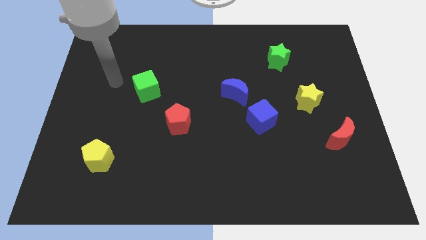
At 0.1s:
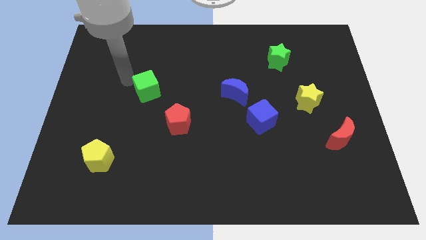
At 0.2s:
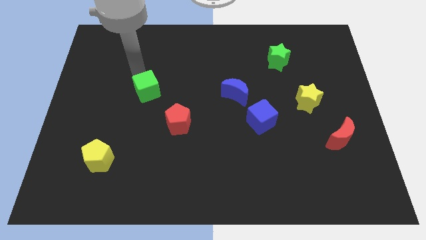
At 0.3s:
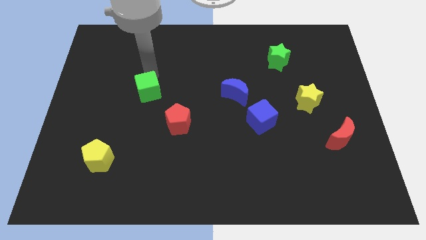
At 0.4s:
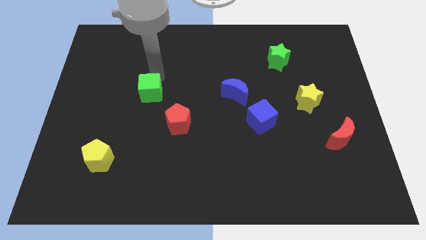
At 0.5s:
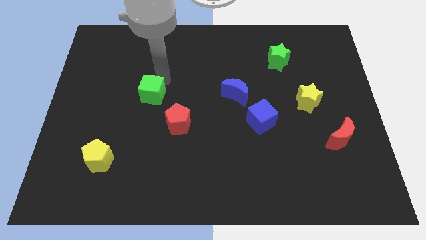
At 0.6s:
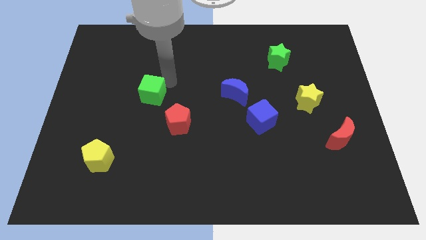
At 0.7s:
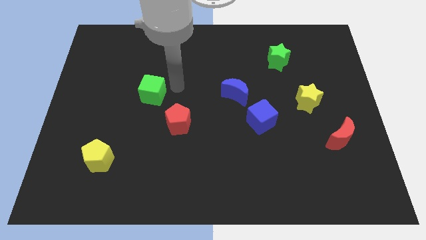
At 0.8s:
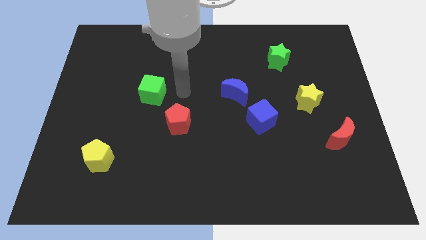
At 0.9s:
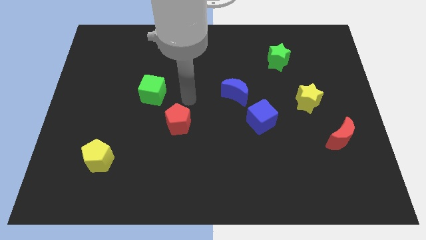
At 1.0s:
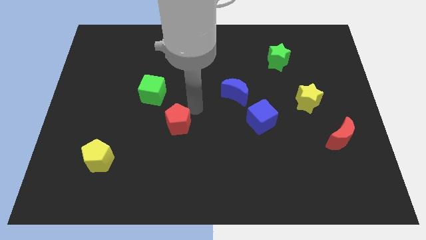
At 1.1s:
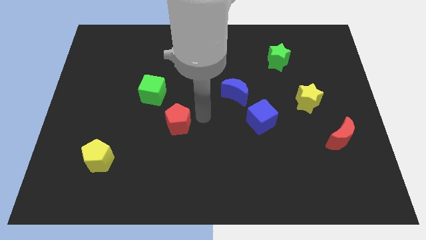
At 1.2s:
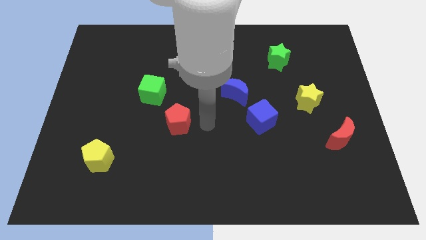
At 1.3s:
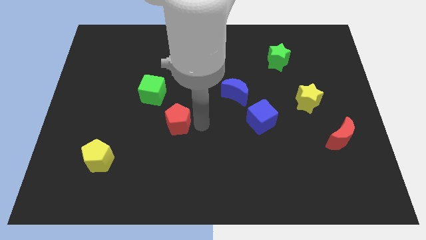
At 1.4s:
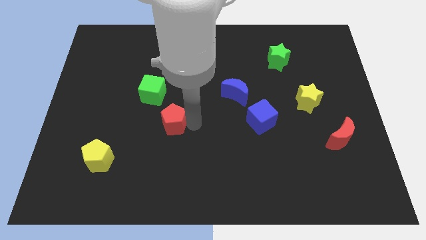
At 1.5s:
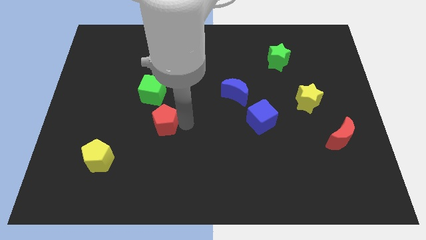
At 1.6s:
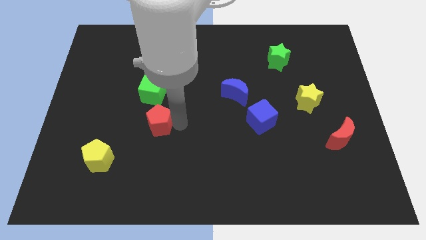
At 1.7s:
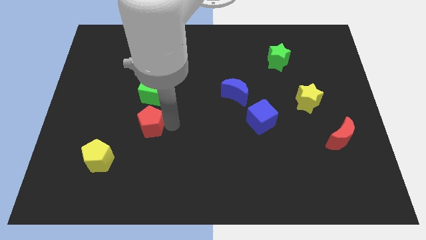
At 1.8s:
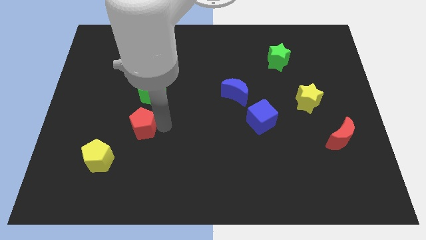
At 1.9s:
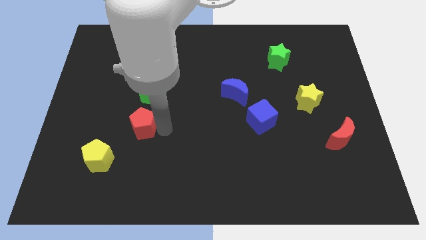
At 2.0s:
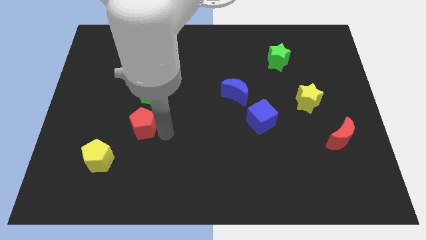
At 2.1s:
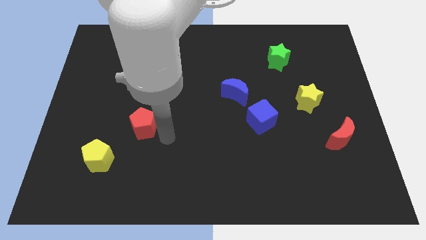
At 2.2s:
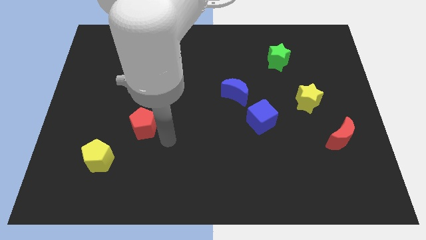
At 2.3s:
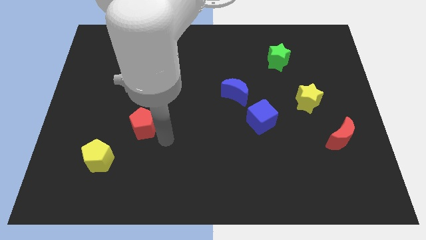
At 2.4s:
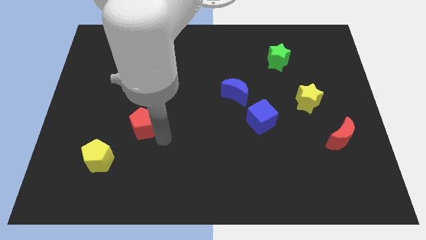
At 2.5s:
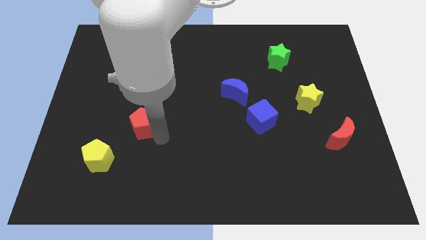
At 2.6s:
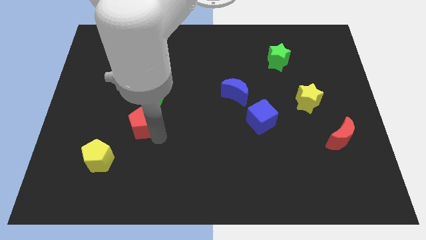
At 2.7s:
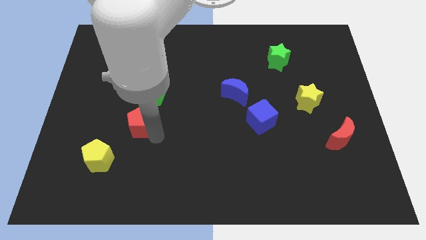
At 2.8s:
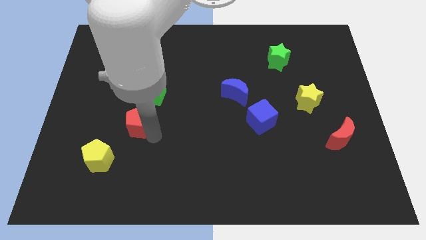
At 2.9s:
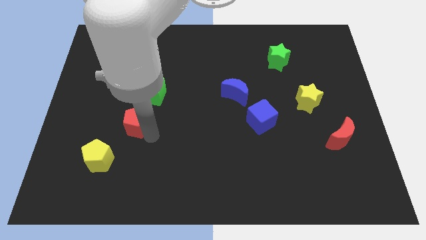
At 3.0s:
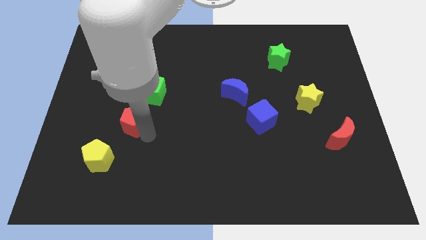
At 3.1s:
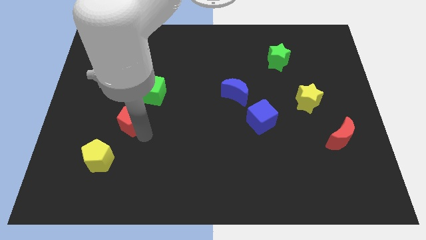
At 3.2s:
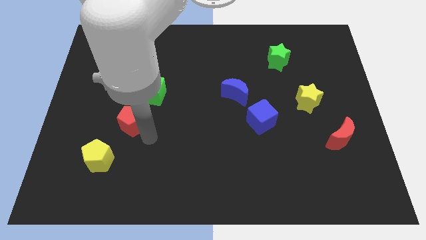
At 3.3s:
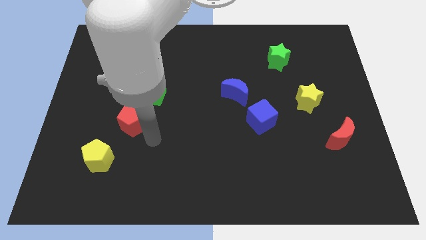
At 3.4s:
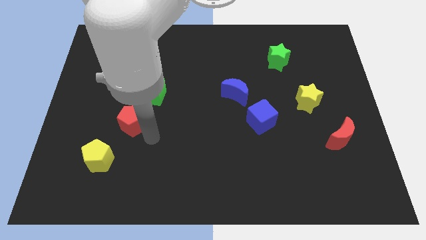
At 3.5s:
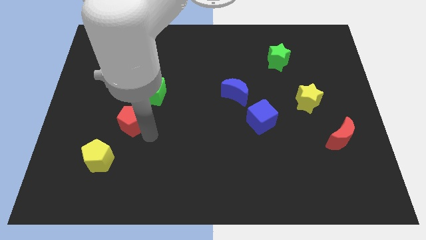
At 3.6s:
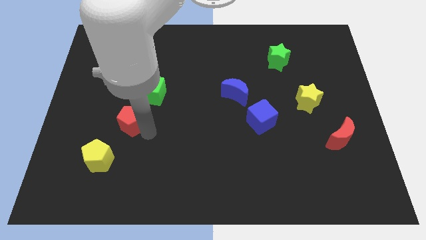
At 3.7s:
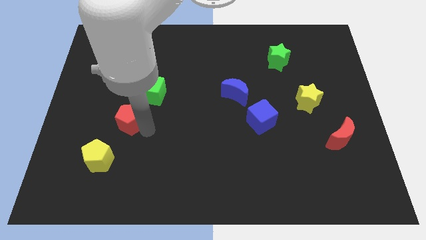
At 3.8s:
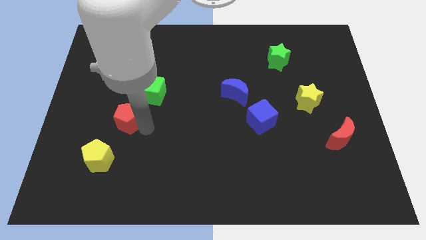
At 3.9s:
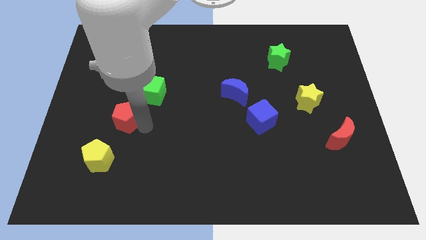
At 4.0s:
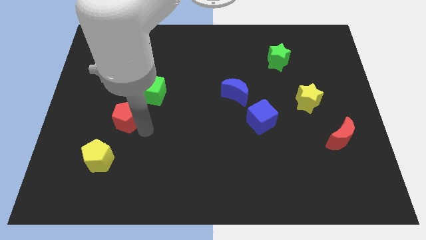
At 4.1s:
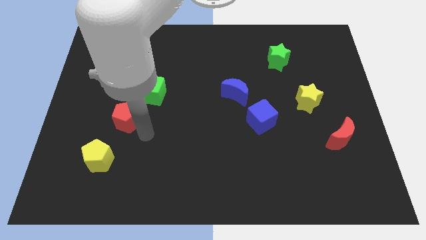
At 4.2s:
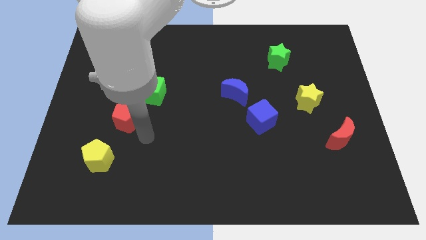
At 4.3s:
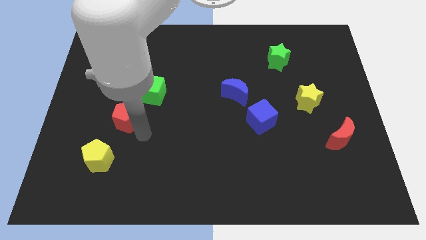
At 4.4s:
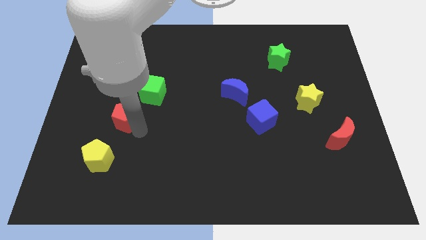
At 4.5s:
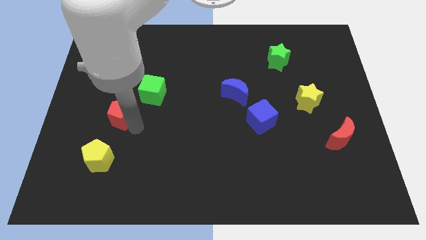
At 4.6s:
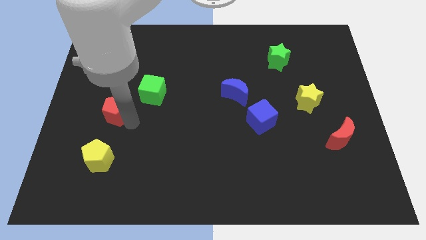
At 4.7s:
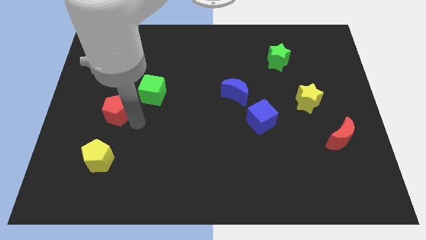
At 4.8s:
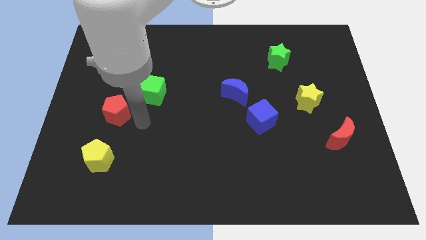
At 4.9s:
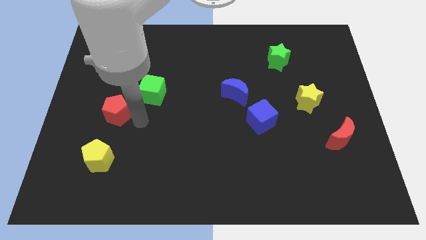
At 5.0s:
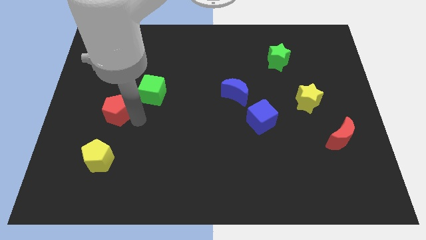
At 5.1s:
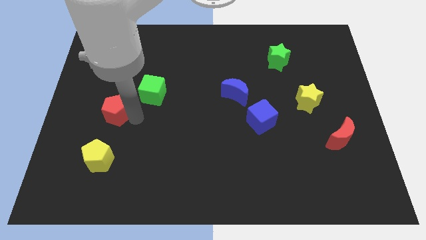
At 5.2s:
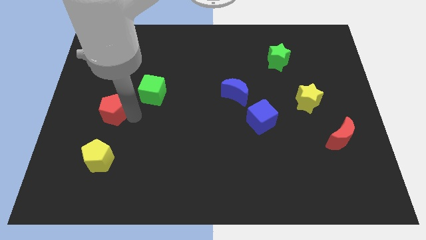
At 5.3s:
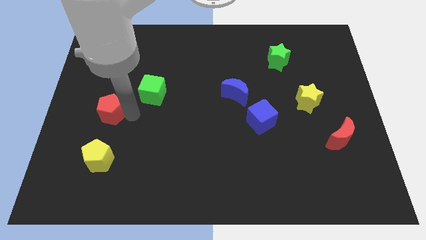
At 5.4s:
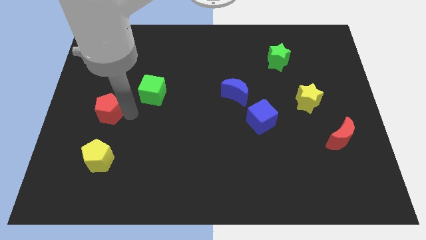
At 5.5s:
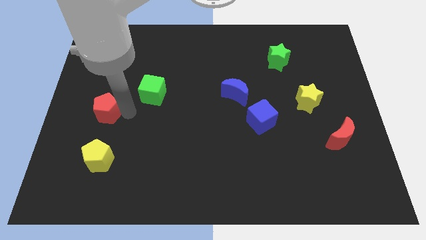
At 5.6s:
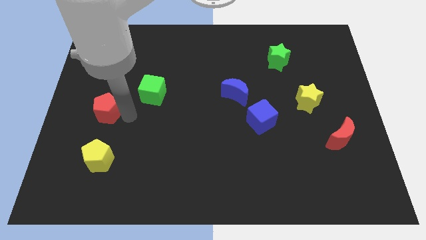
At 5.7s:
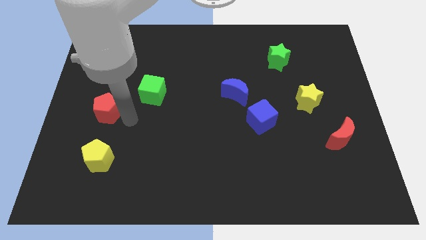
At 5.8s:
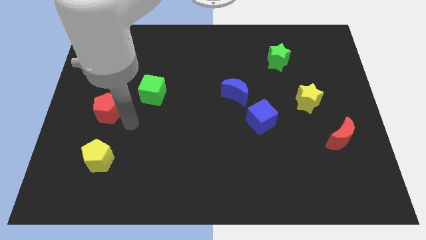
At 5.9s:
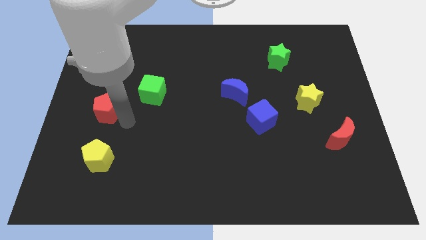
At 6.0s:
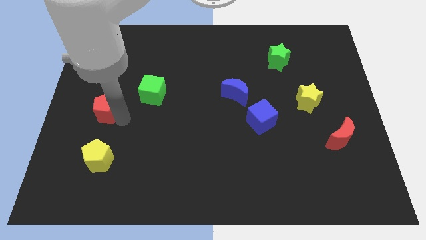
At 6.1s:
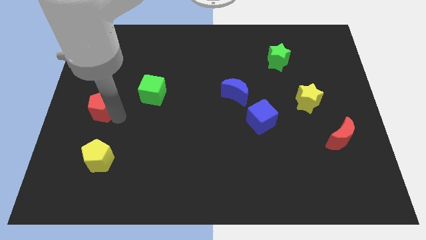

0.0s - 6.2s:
put the red pentagon to the center left
